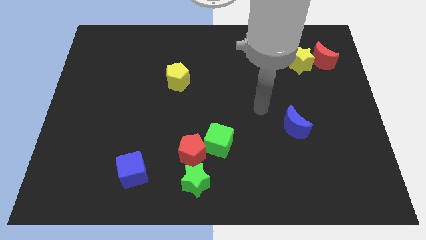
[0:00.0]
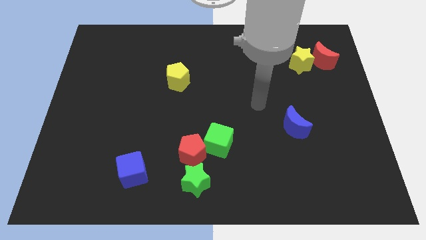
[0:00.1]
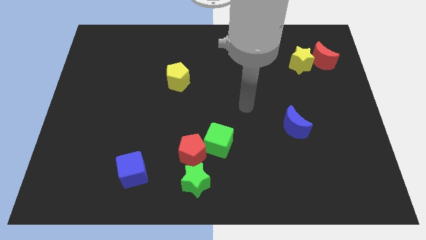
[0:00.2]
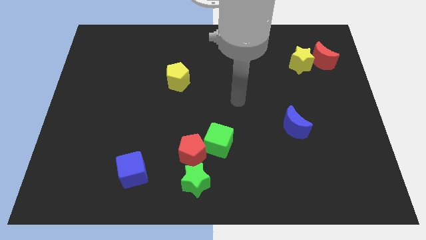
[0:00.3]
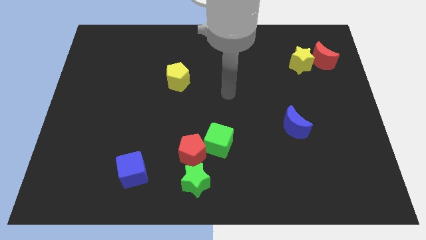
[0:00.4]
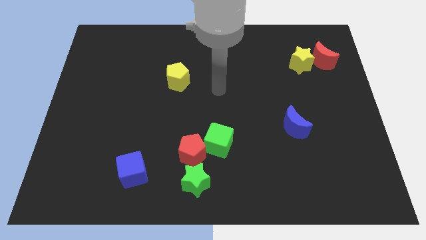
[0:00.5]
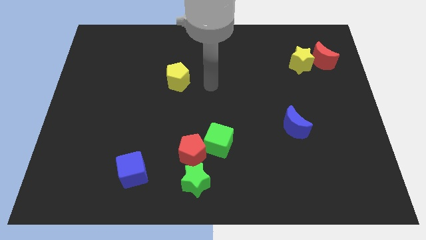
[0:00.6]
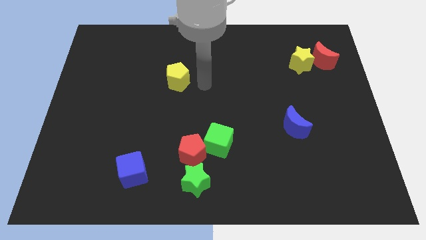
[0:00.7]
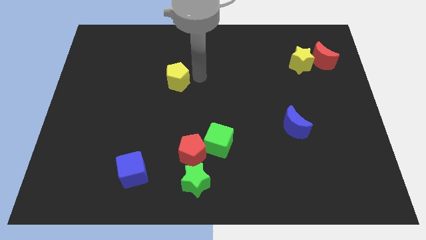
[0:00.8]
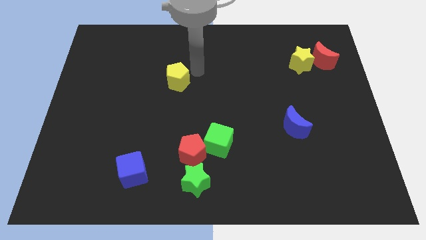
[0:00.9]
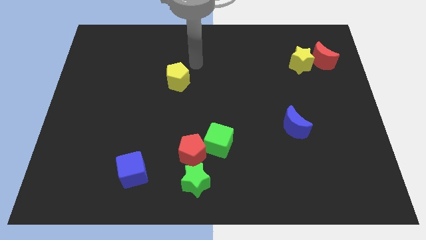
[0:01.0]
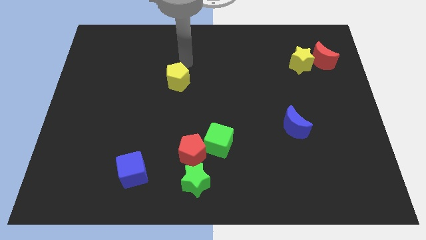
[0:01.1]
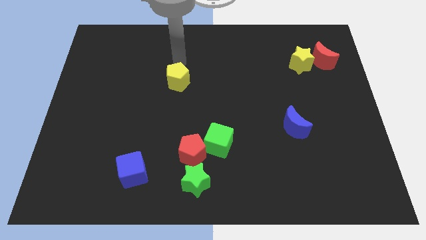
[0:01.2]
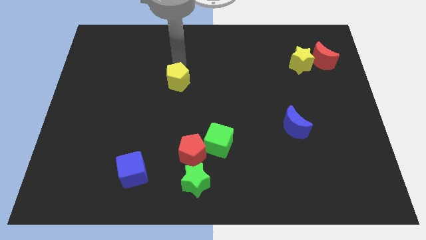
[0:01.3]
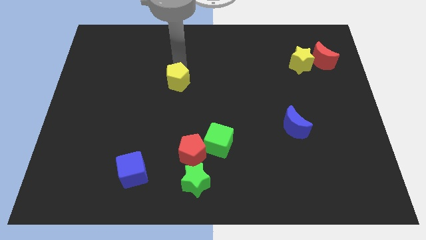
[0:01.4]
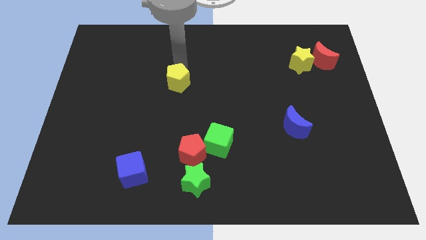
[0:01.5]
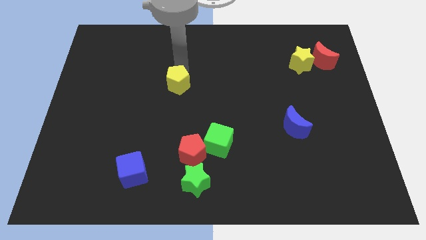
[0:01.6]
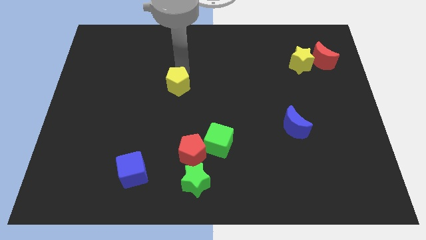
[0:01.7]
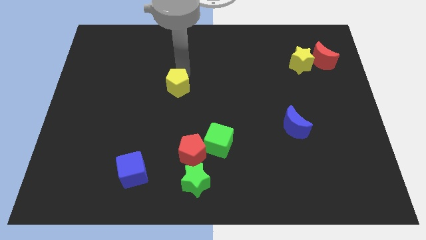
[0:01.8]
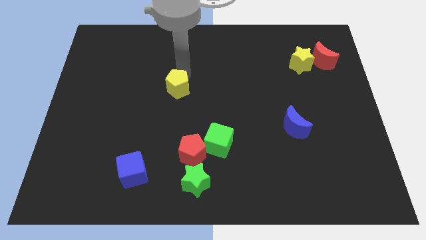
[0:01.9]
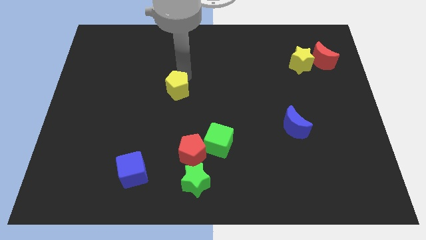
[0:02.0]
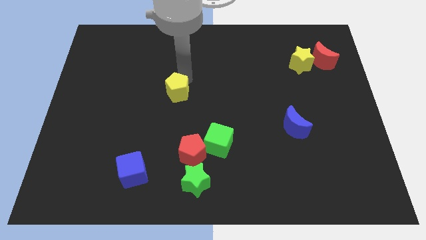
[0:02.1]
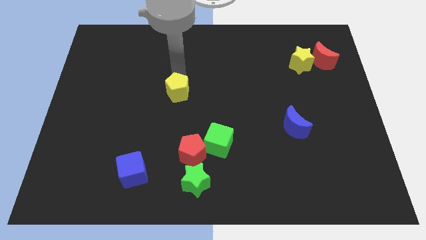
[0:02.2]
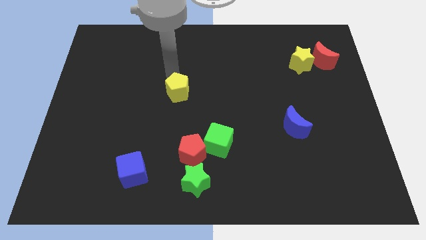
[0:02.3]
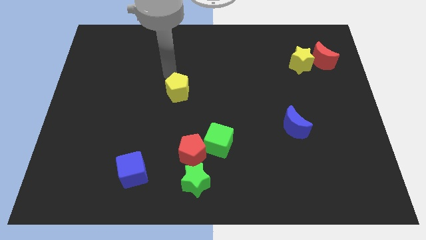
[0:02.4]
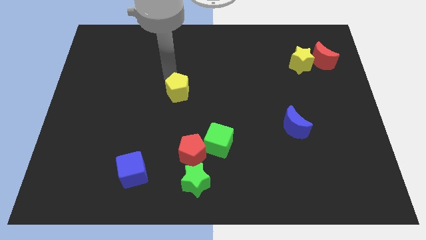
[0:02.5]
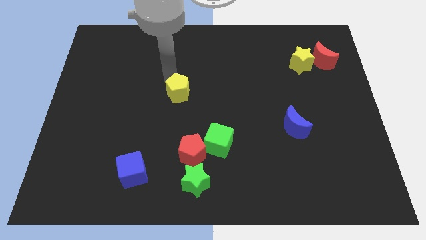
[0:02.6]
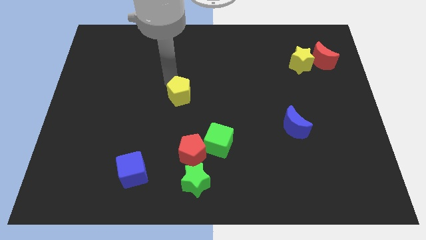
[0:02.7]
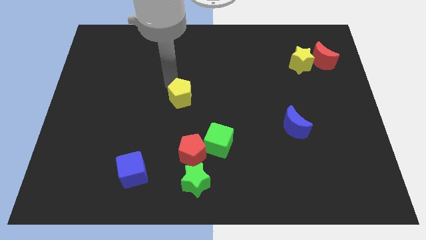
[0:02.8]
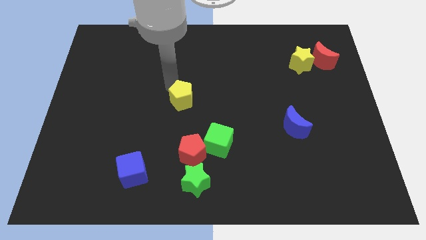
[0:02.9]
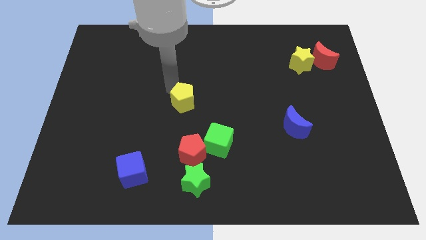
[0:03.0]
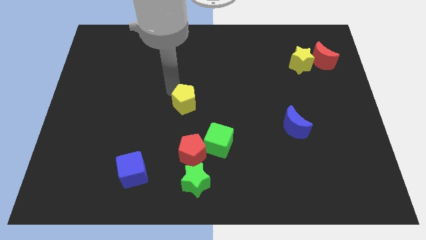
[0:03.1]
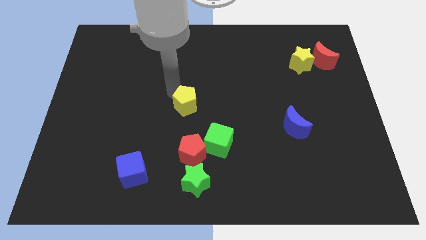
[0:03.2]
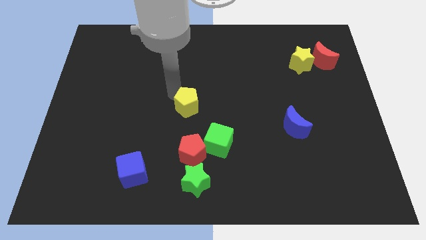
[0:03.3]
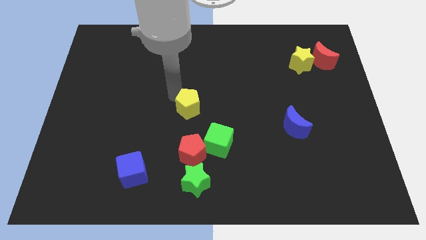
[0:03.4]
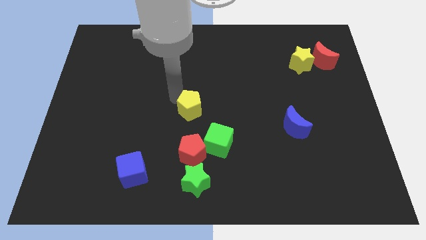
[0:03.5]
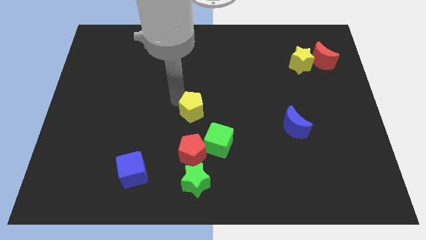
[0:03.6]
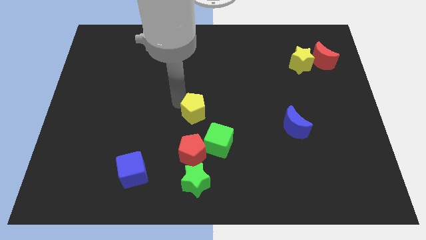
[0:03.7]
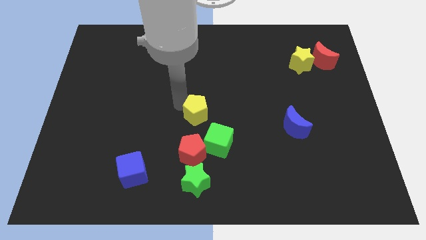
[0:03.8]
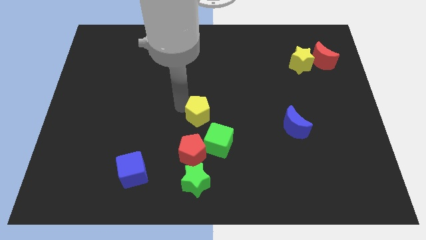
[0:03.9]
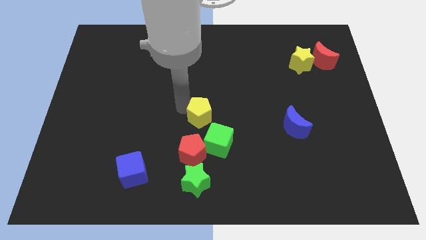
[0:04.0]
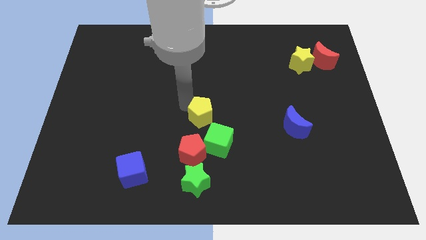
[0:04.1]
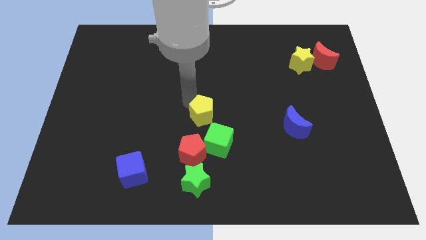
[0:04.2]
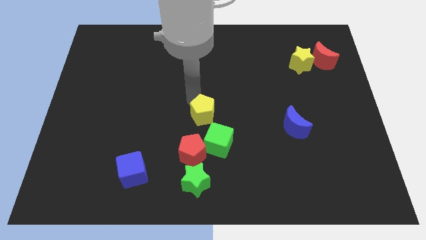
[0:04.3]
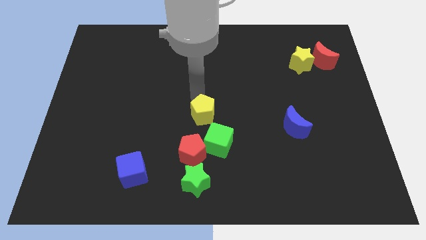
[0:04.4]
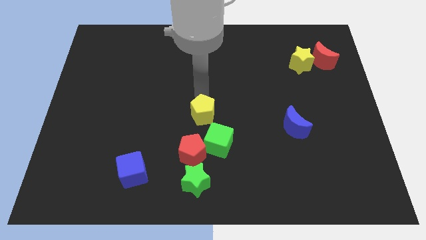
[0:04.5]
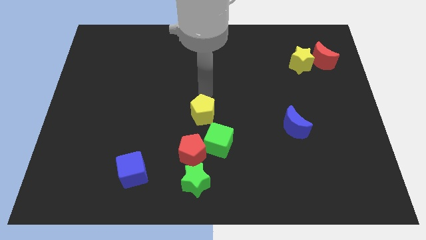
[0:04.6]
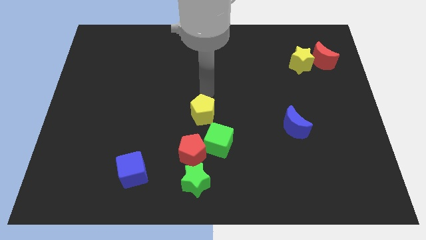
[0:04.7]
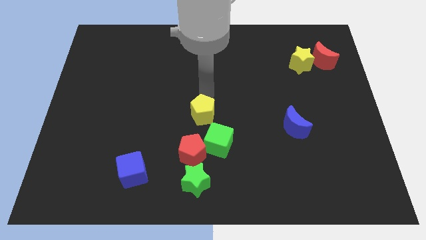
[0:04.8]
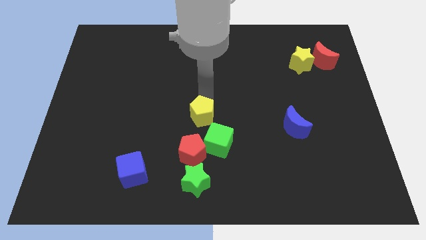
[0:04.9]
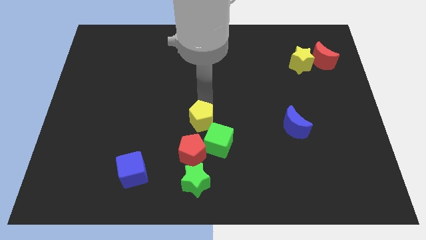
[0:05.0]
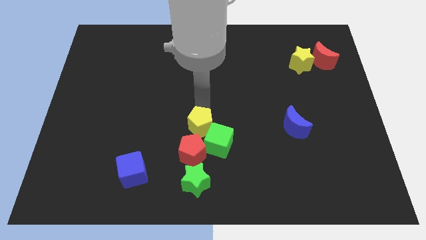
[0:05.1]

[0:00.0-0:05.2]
put the yellow pentagon close to the green cube

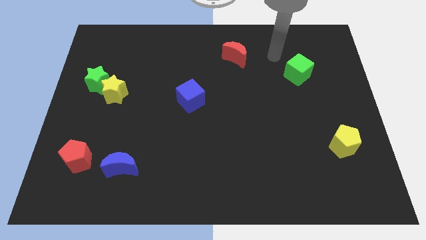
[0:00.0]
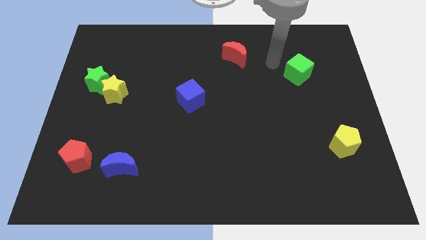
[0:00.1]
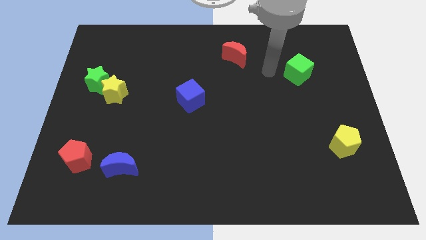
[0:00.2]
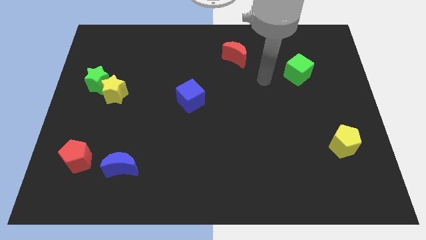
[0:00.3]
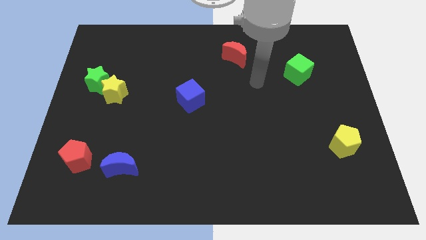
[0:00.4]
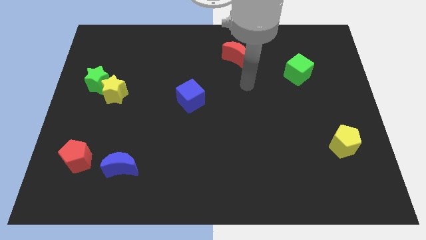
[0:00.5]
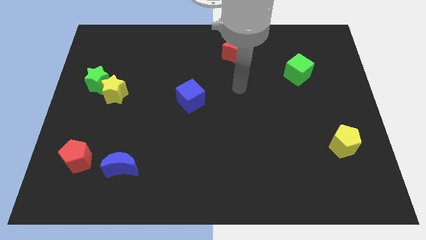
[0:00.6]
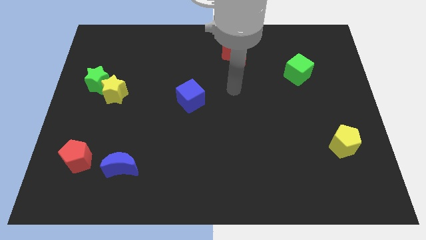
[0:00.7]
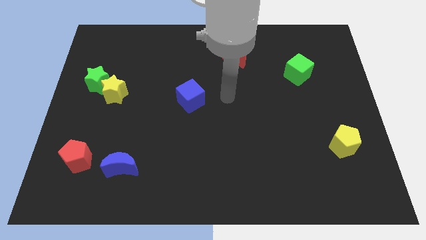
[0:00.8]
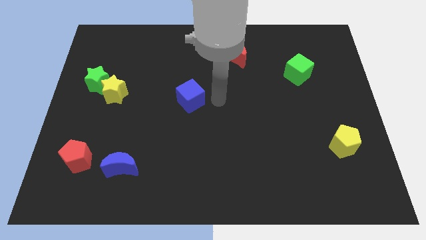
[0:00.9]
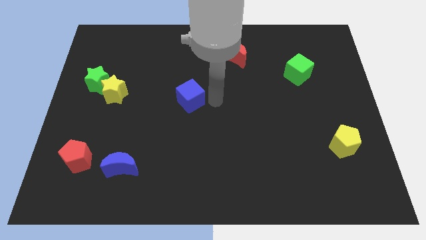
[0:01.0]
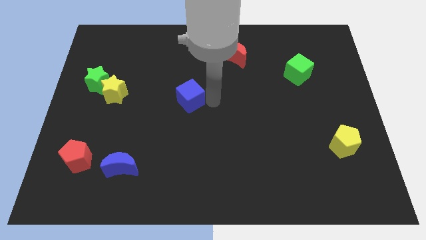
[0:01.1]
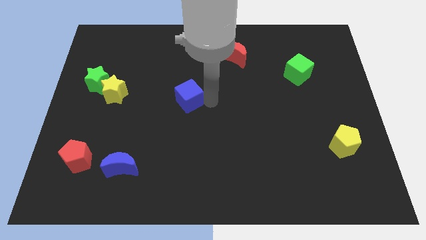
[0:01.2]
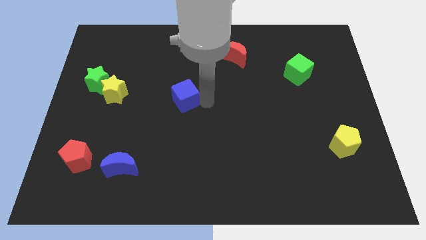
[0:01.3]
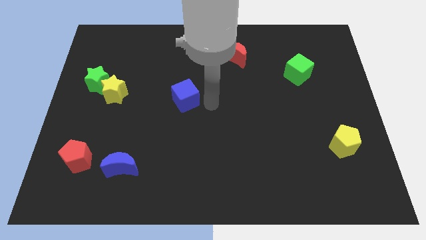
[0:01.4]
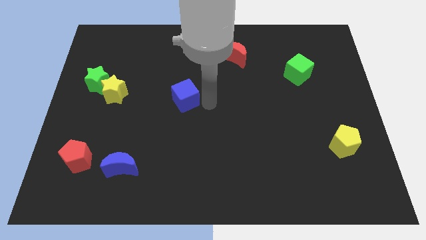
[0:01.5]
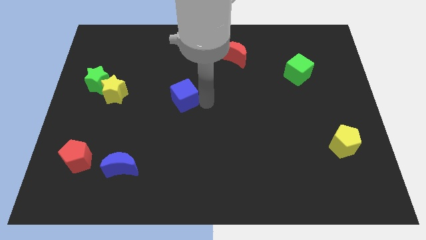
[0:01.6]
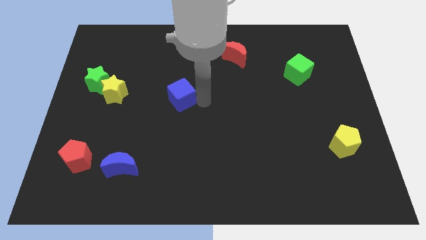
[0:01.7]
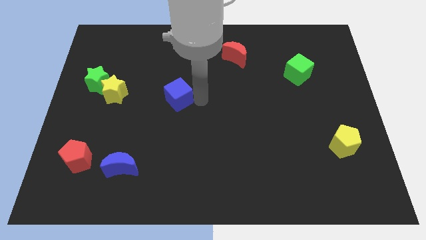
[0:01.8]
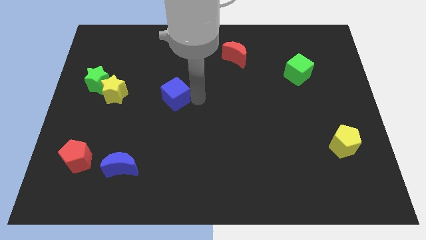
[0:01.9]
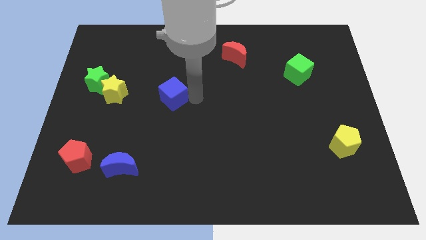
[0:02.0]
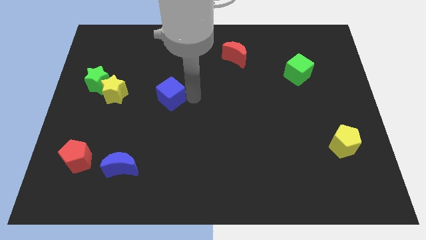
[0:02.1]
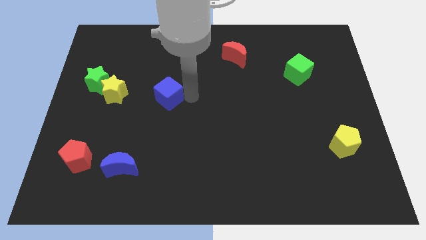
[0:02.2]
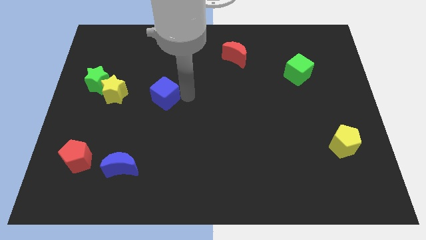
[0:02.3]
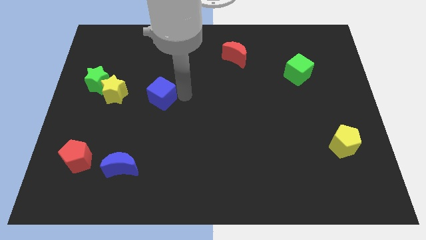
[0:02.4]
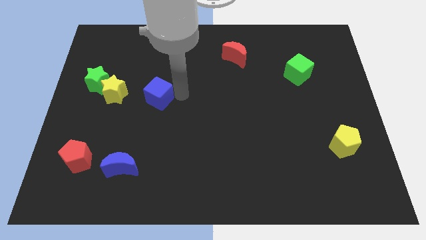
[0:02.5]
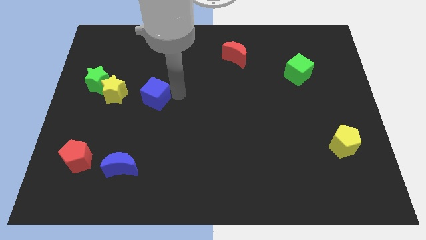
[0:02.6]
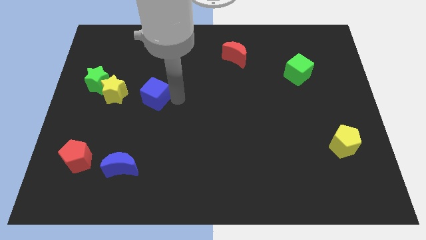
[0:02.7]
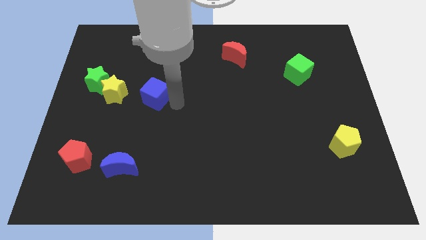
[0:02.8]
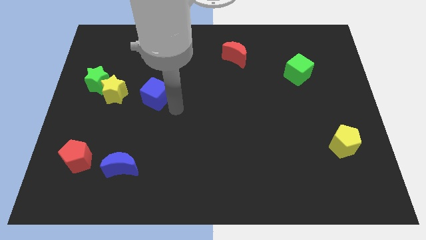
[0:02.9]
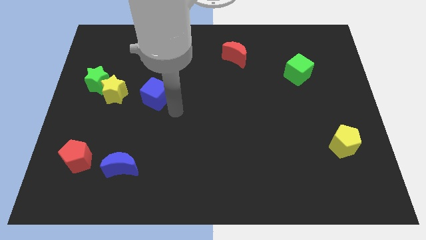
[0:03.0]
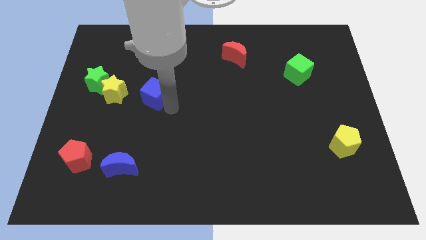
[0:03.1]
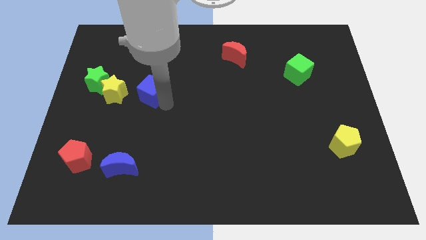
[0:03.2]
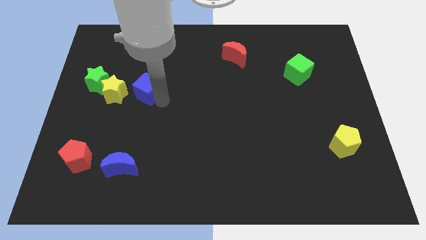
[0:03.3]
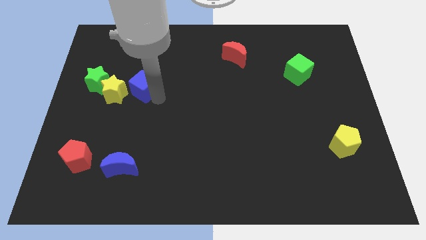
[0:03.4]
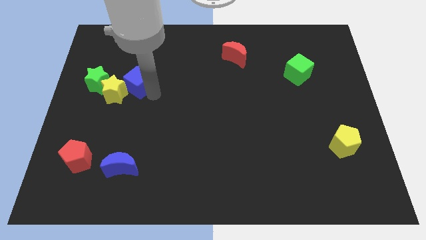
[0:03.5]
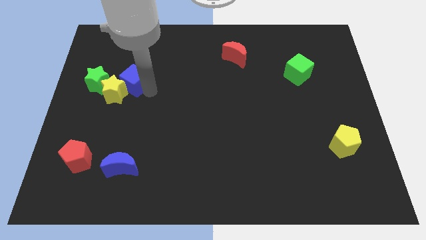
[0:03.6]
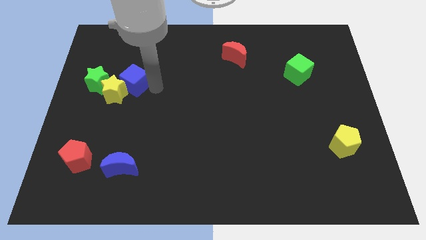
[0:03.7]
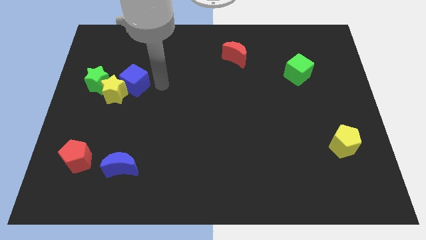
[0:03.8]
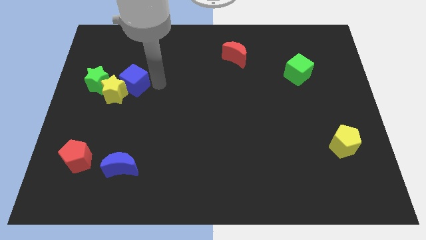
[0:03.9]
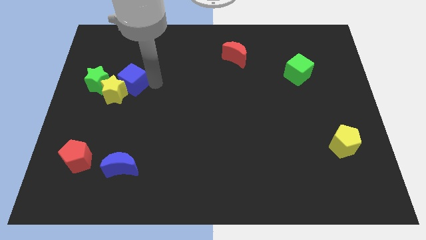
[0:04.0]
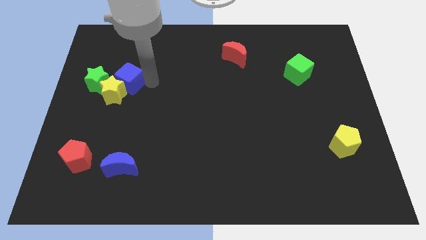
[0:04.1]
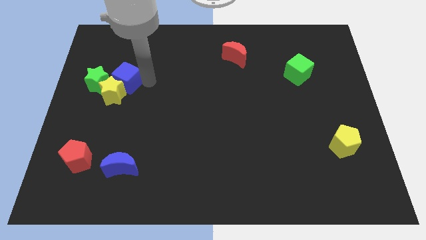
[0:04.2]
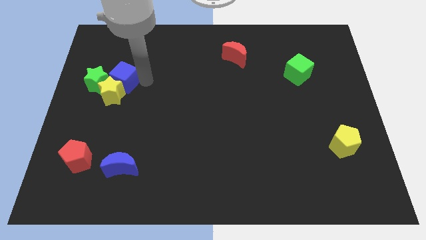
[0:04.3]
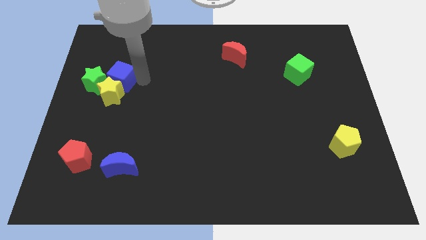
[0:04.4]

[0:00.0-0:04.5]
move the blue cube to the green star
